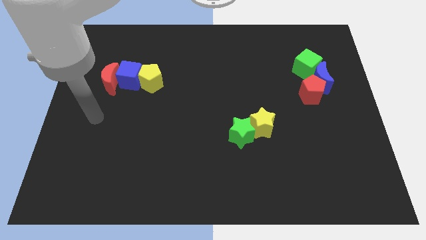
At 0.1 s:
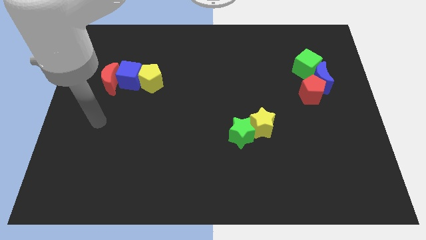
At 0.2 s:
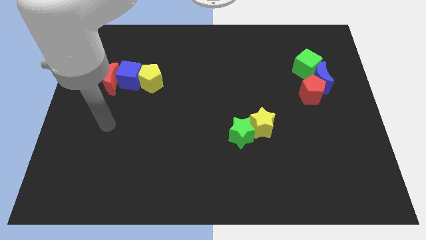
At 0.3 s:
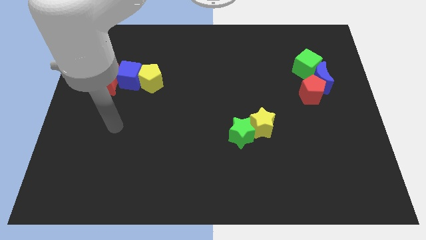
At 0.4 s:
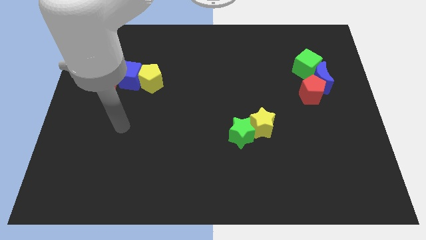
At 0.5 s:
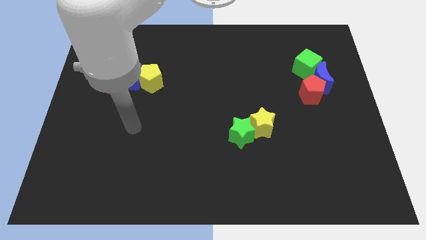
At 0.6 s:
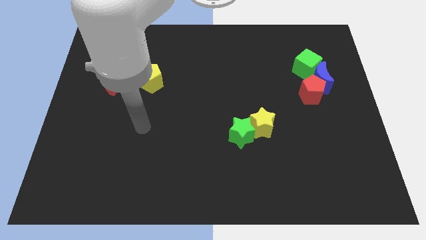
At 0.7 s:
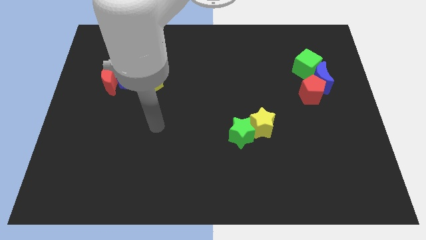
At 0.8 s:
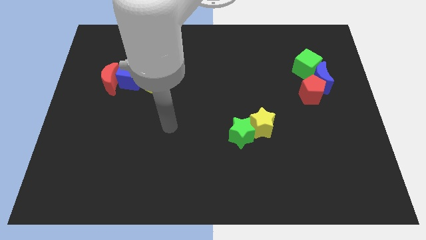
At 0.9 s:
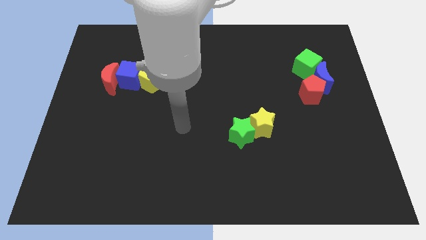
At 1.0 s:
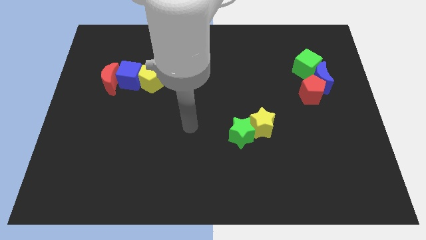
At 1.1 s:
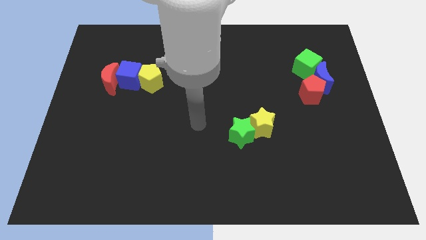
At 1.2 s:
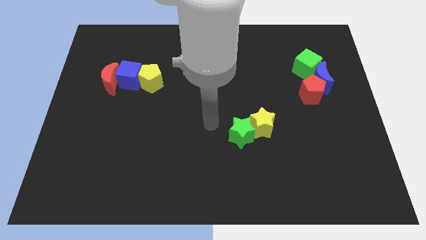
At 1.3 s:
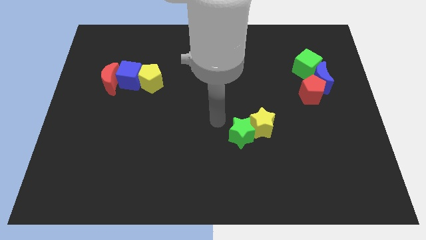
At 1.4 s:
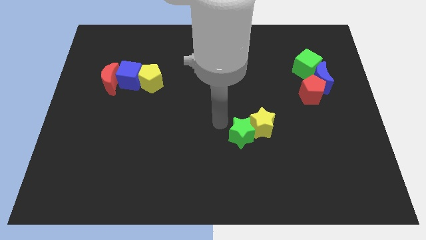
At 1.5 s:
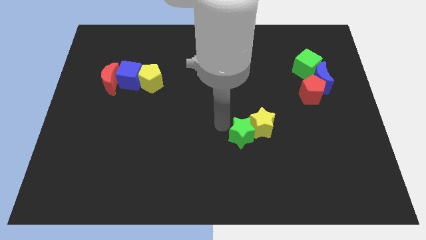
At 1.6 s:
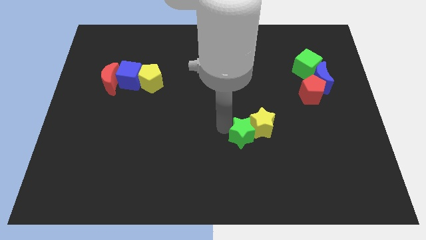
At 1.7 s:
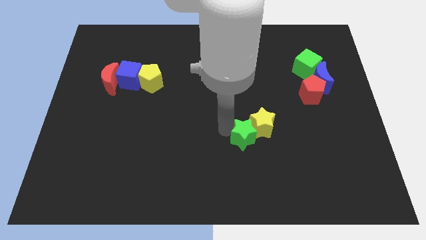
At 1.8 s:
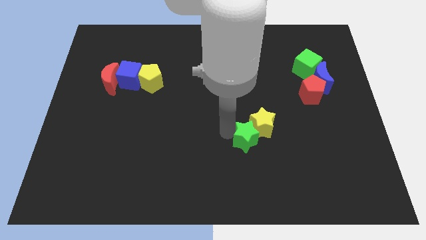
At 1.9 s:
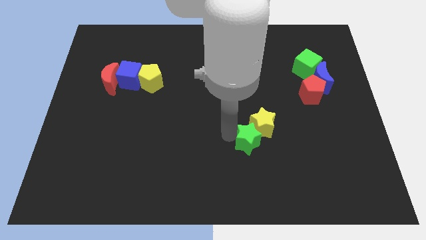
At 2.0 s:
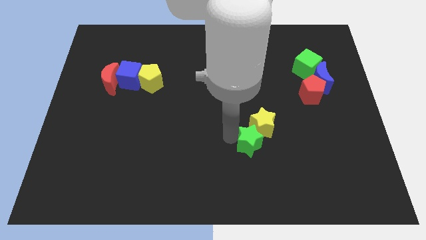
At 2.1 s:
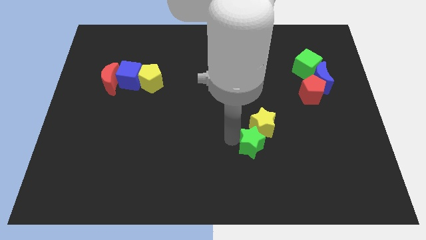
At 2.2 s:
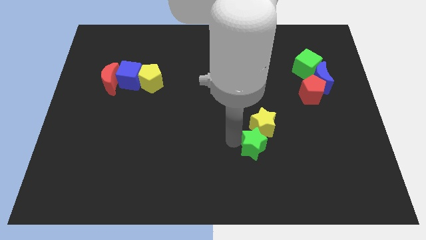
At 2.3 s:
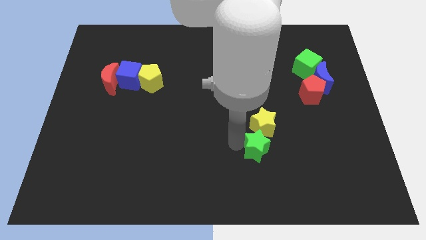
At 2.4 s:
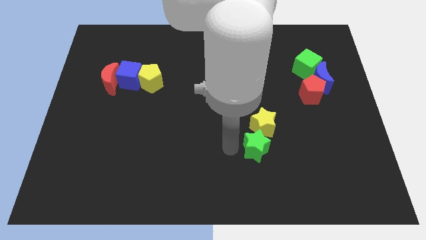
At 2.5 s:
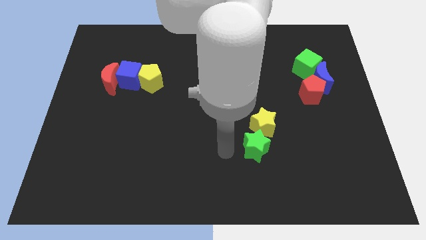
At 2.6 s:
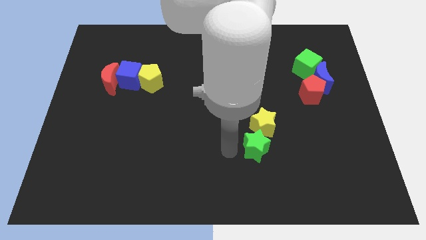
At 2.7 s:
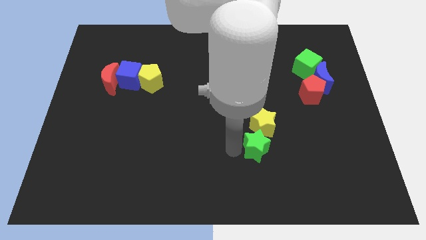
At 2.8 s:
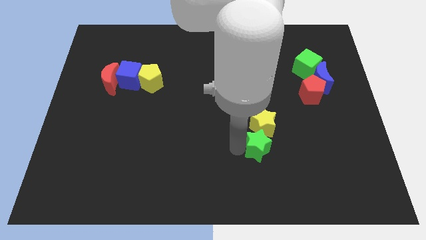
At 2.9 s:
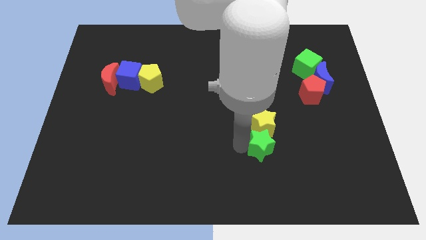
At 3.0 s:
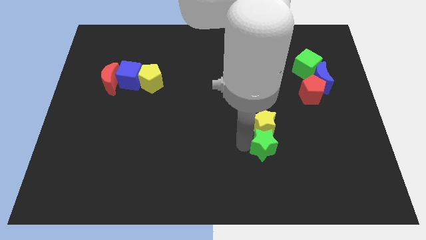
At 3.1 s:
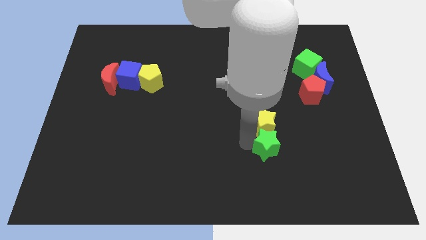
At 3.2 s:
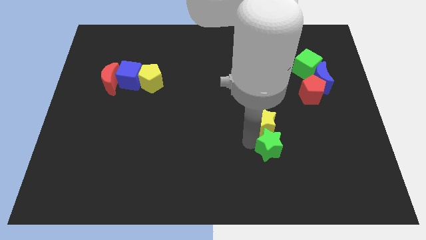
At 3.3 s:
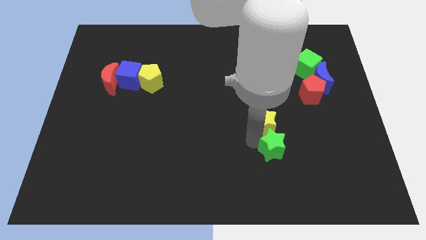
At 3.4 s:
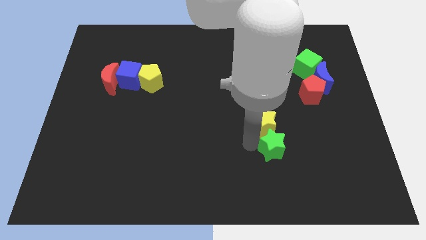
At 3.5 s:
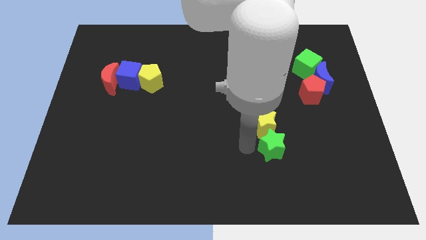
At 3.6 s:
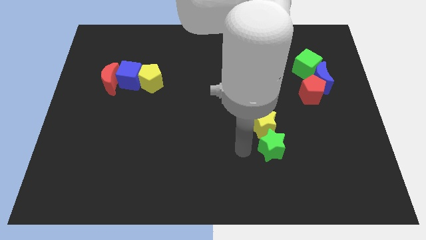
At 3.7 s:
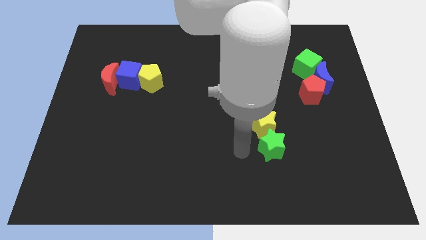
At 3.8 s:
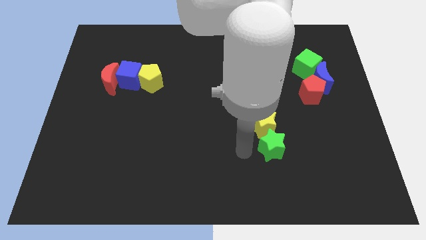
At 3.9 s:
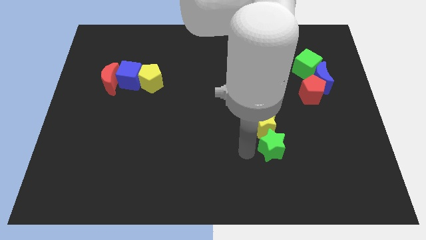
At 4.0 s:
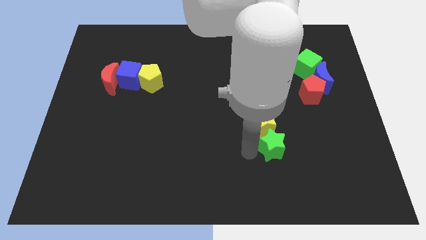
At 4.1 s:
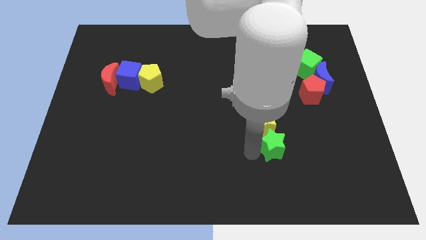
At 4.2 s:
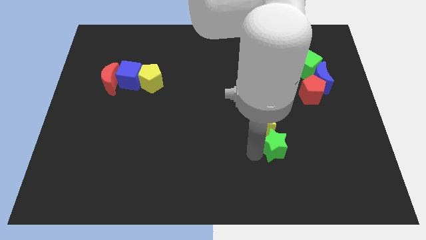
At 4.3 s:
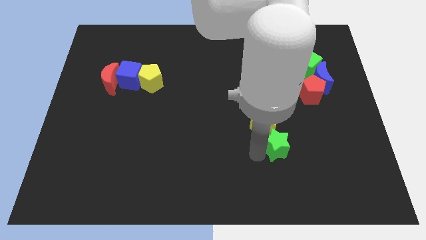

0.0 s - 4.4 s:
slightly slide the green star right

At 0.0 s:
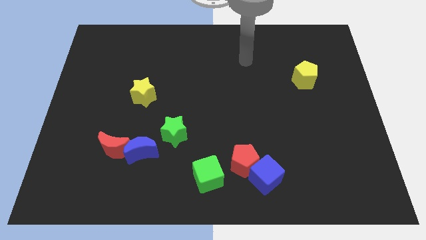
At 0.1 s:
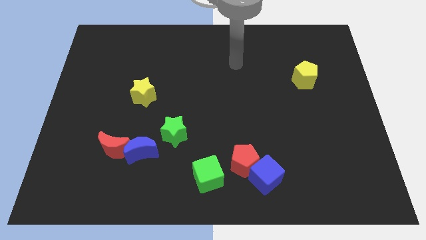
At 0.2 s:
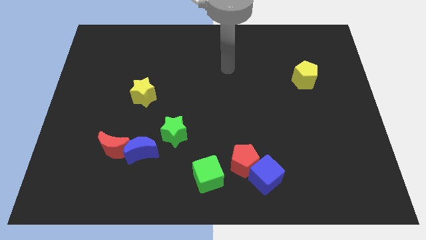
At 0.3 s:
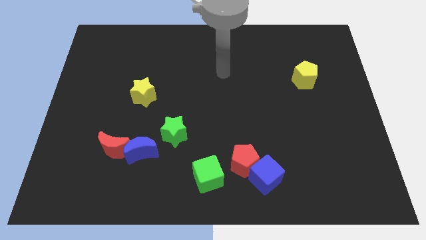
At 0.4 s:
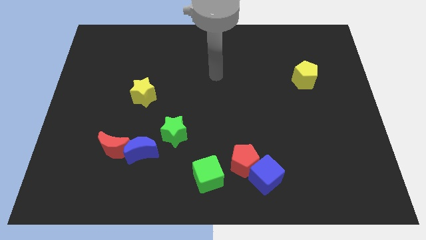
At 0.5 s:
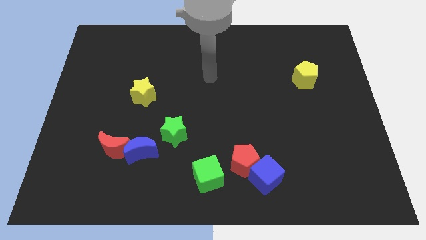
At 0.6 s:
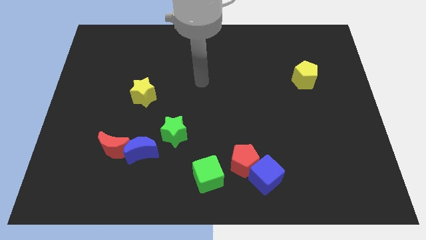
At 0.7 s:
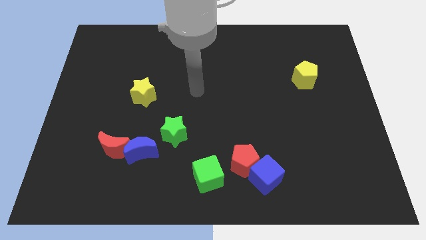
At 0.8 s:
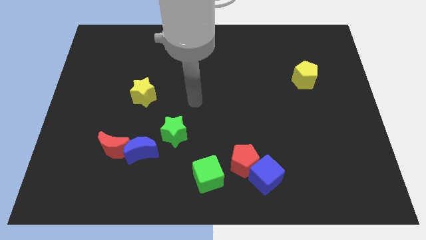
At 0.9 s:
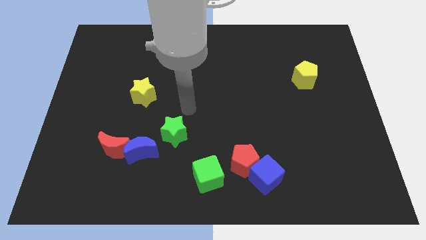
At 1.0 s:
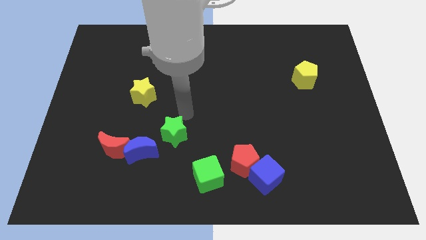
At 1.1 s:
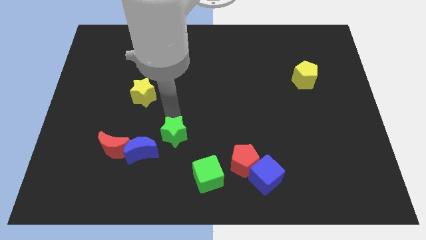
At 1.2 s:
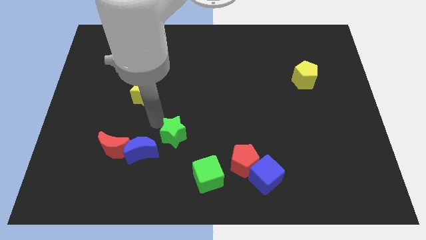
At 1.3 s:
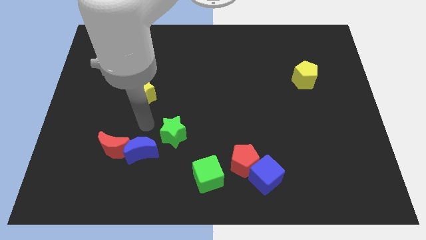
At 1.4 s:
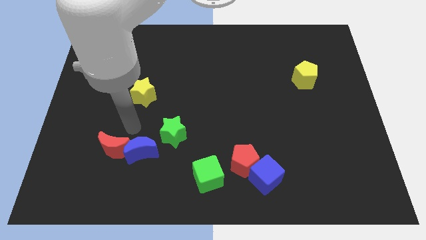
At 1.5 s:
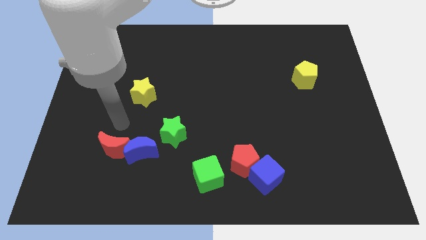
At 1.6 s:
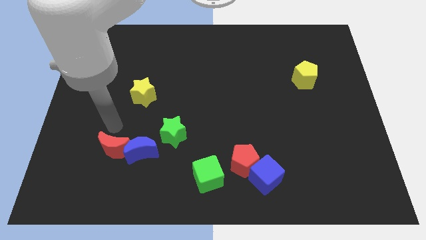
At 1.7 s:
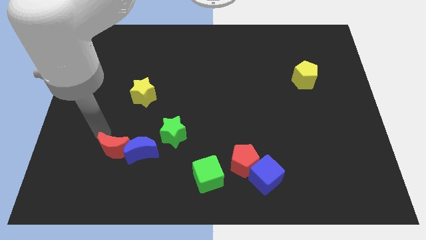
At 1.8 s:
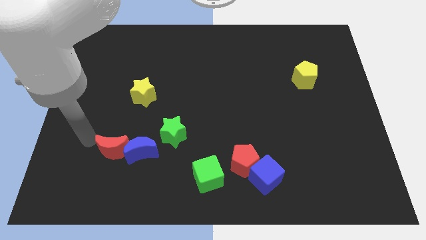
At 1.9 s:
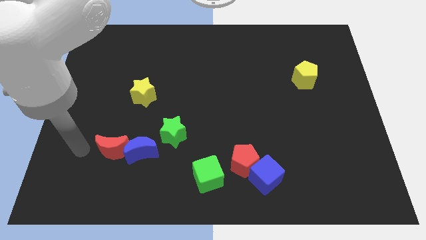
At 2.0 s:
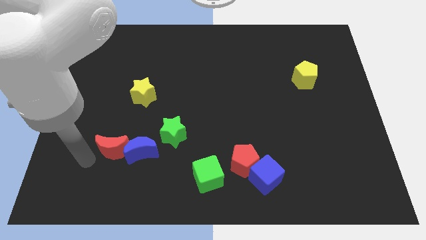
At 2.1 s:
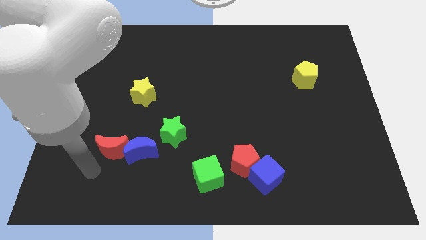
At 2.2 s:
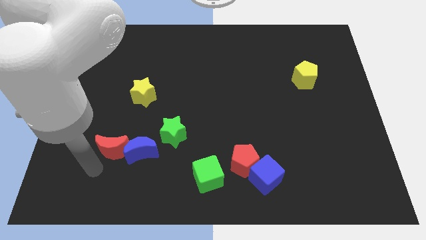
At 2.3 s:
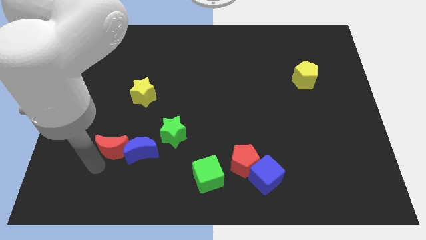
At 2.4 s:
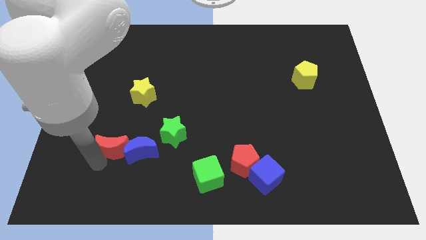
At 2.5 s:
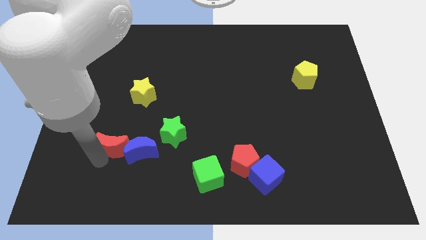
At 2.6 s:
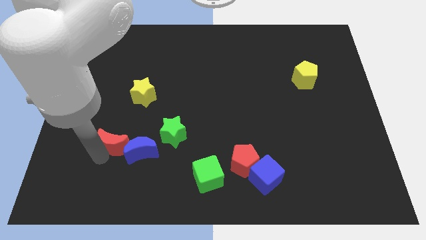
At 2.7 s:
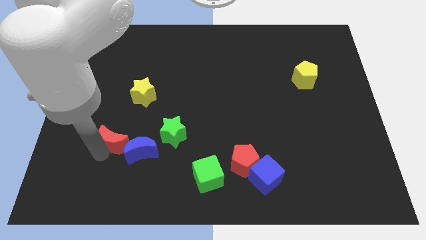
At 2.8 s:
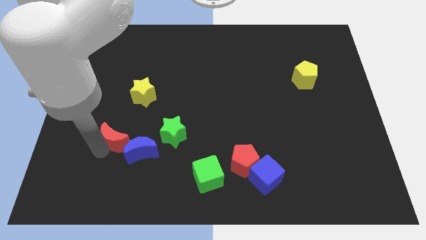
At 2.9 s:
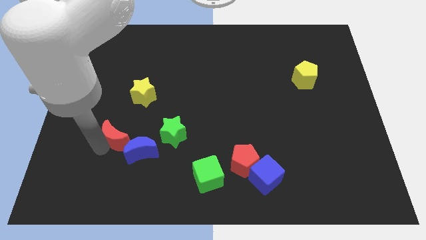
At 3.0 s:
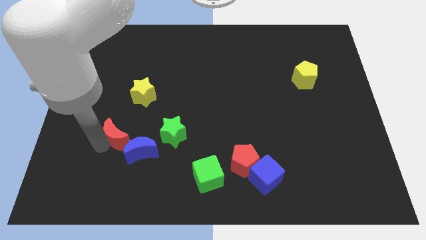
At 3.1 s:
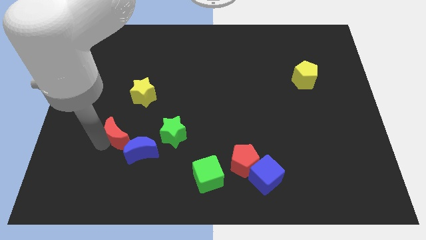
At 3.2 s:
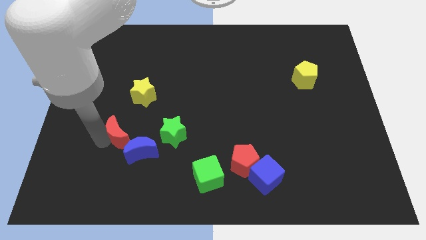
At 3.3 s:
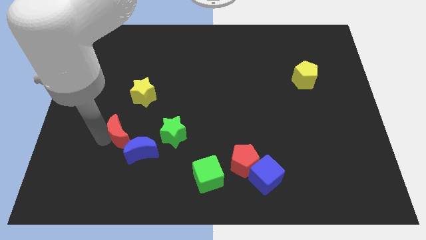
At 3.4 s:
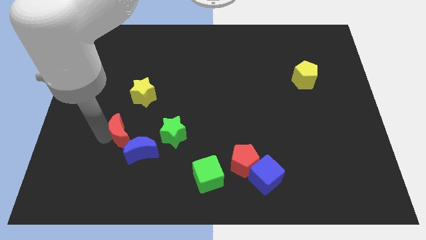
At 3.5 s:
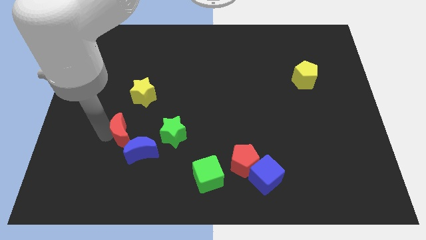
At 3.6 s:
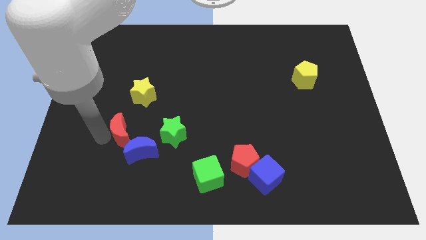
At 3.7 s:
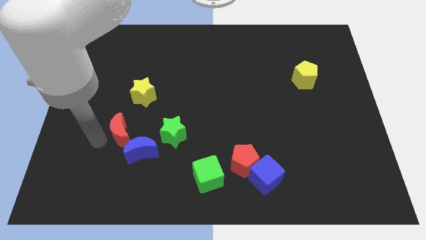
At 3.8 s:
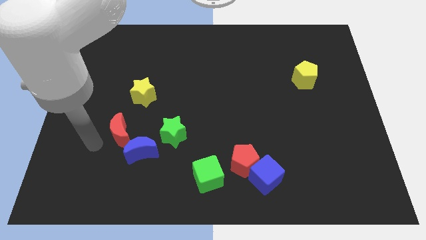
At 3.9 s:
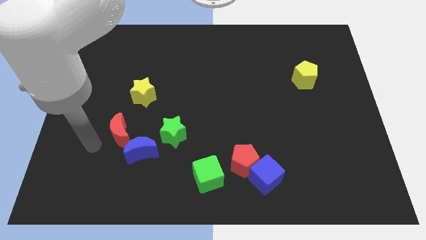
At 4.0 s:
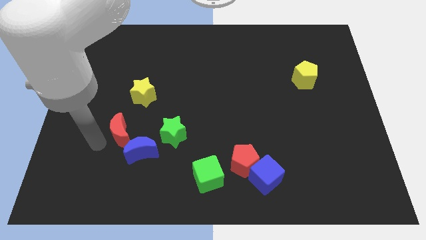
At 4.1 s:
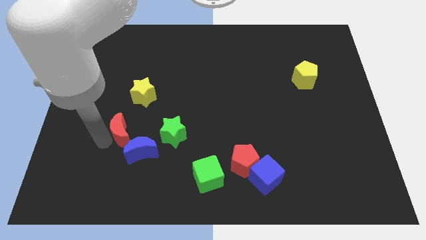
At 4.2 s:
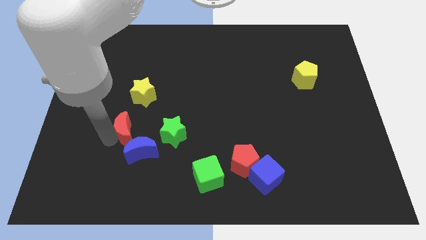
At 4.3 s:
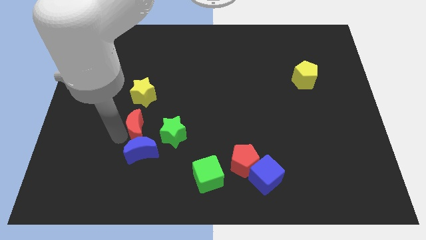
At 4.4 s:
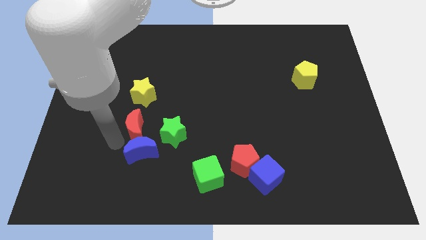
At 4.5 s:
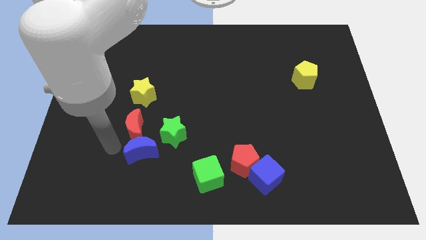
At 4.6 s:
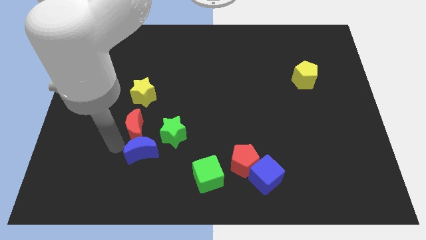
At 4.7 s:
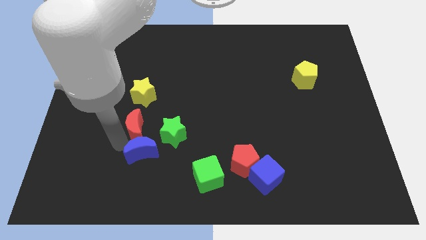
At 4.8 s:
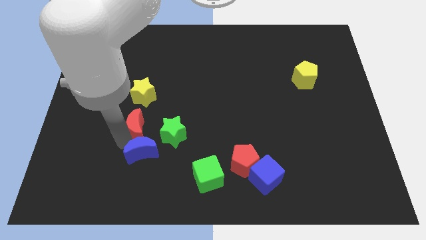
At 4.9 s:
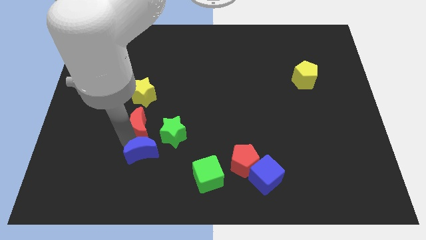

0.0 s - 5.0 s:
slightly push the red moon up and to the right diagonally
